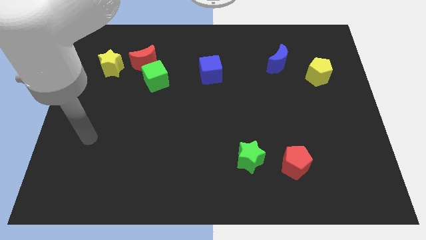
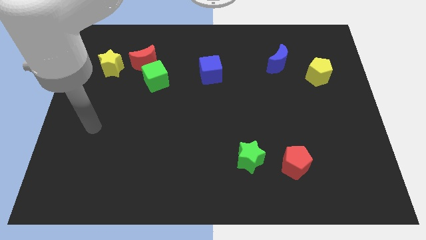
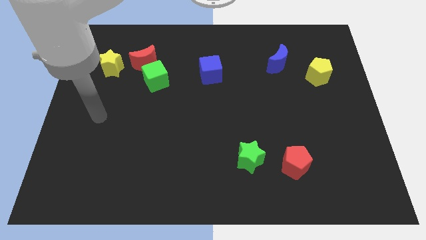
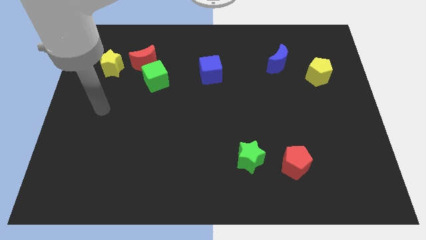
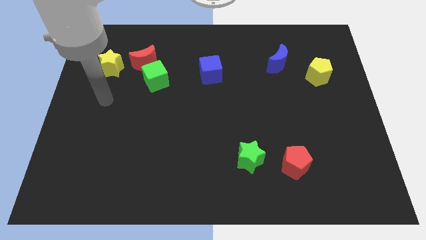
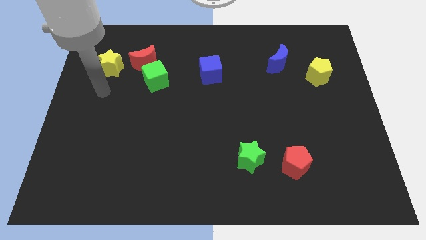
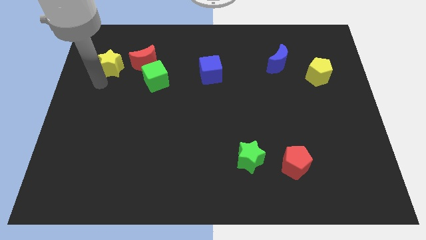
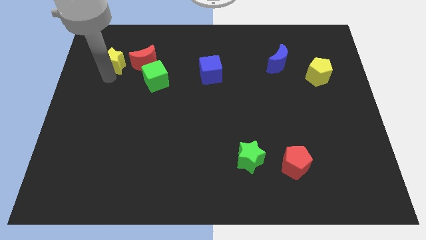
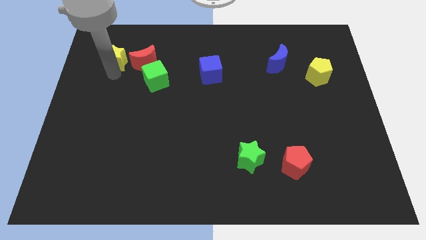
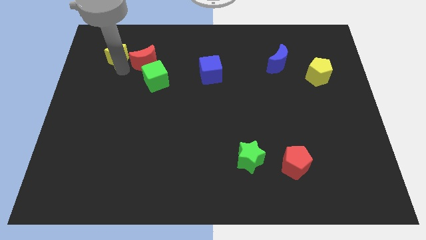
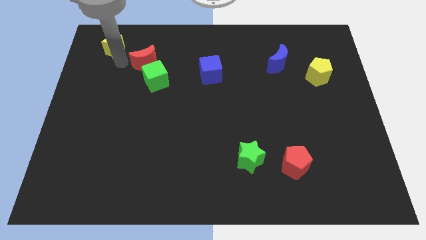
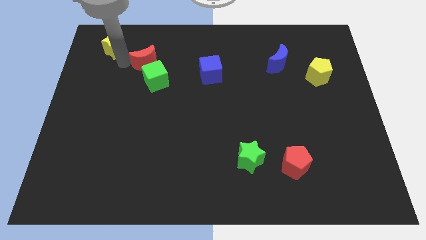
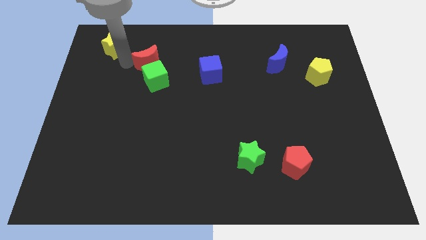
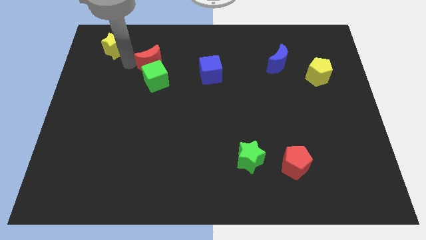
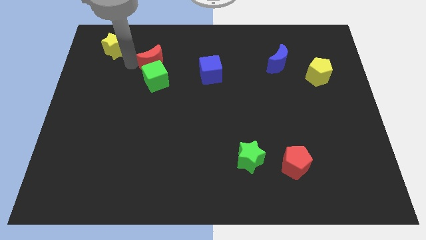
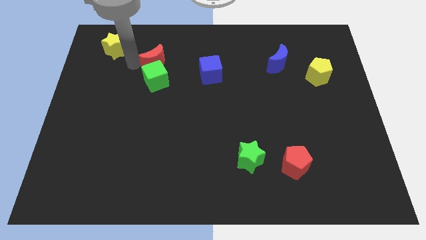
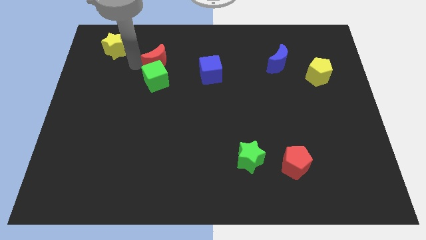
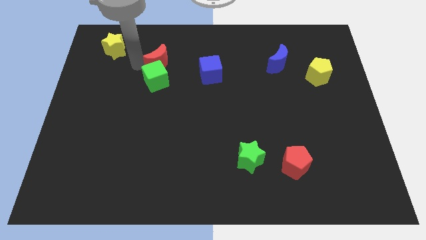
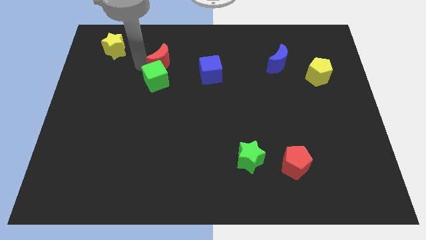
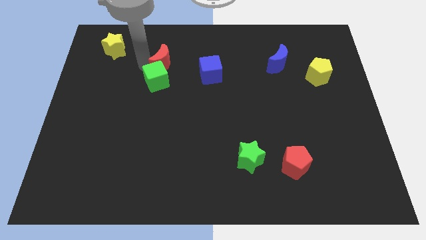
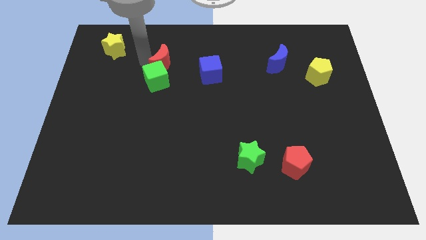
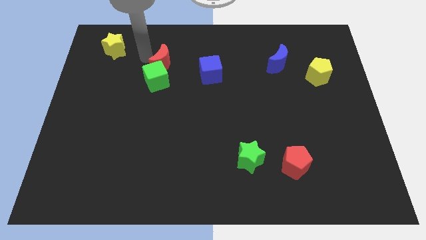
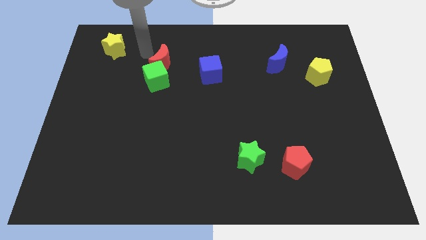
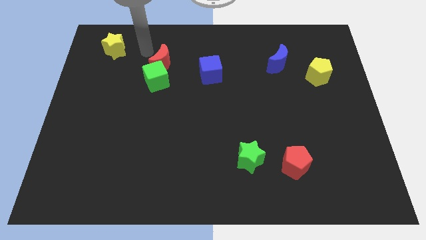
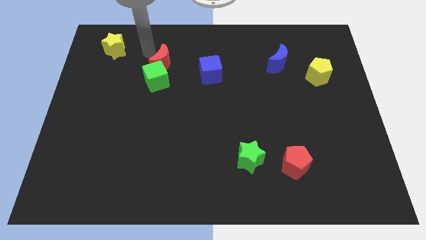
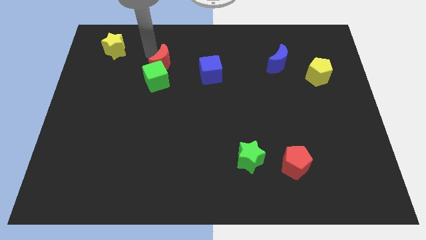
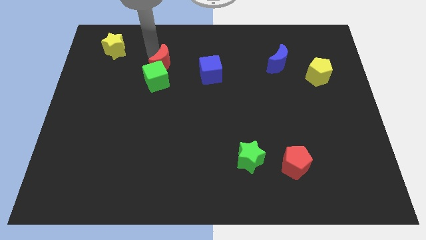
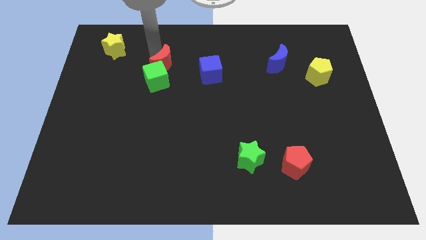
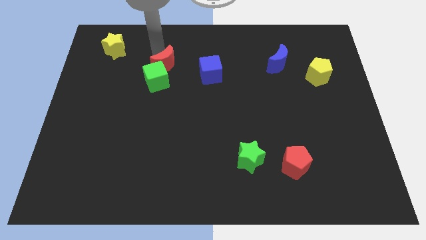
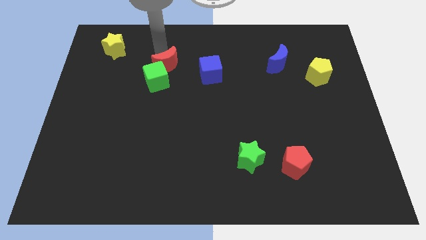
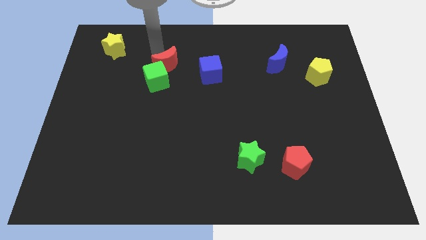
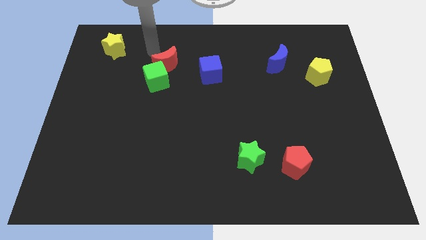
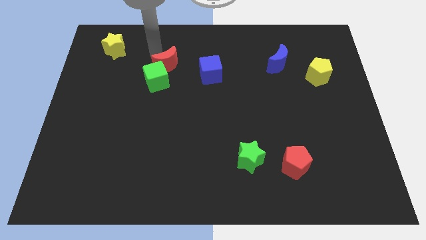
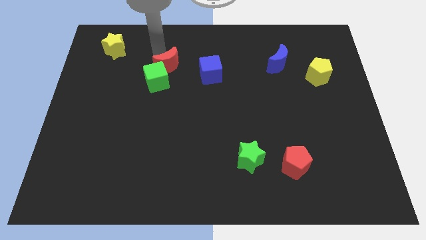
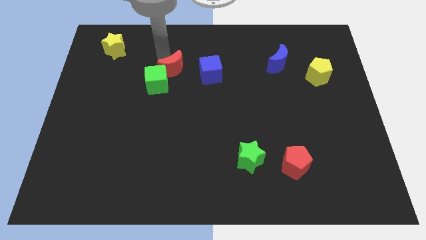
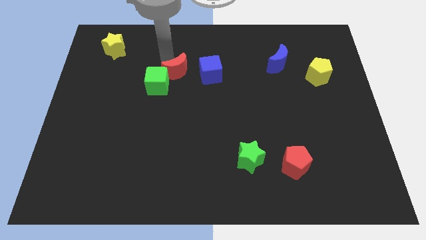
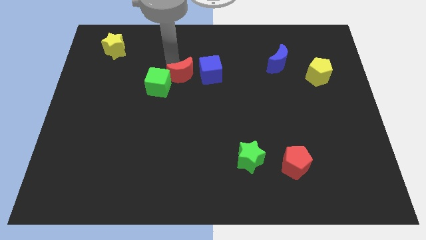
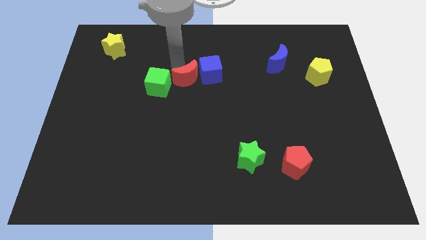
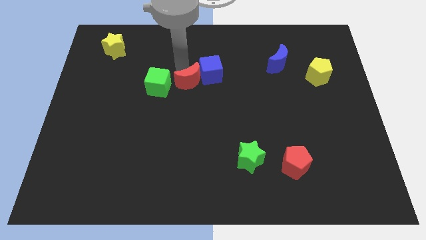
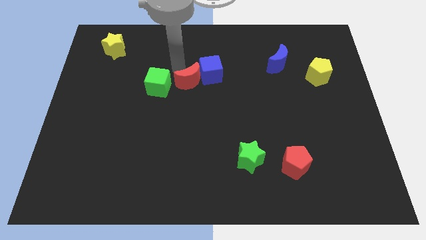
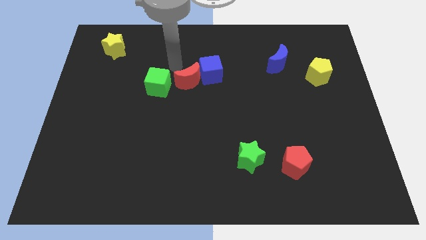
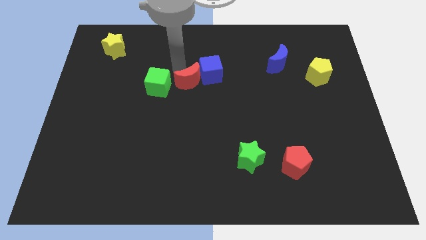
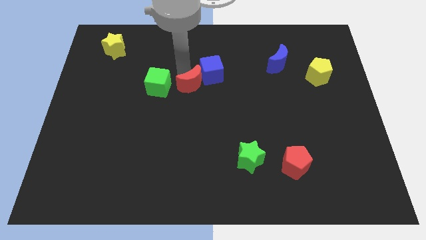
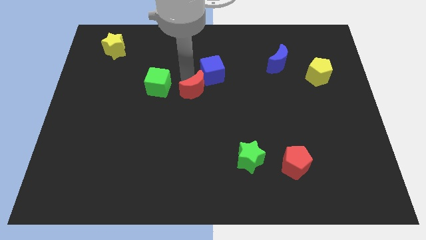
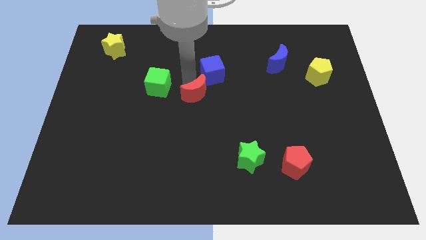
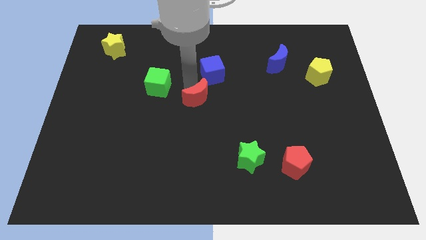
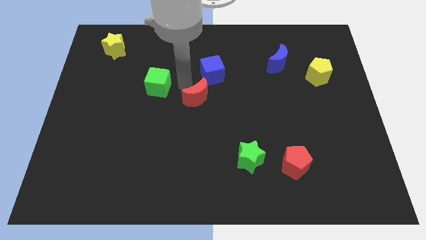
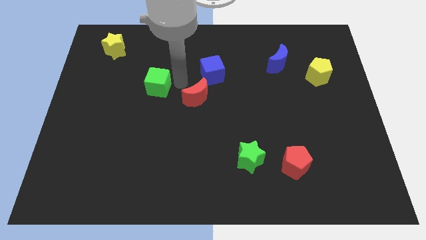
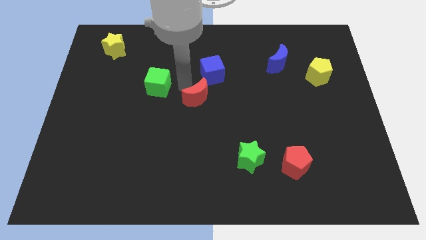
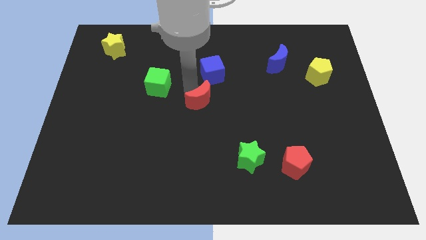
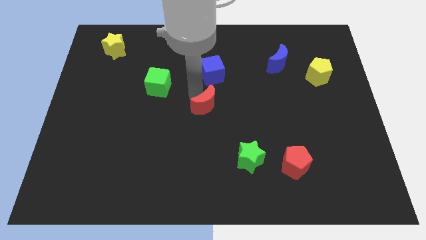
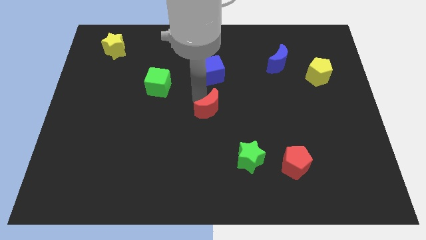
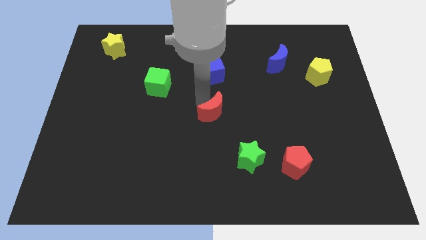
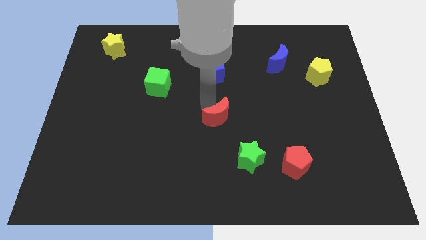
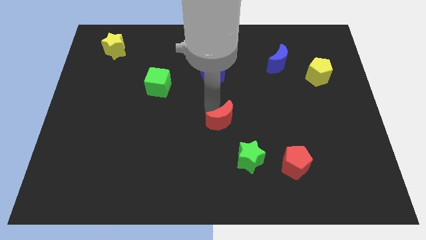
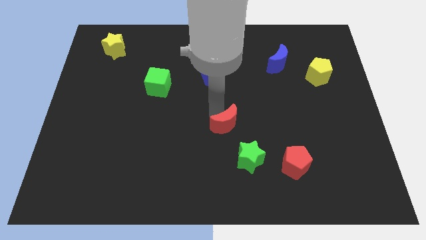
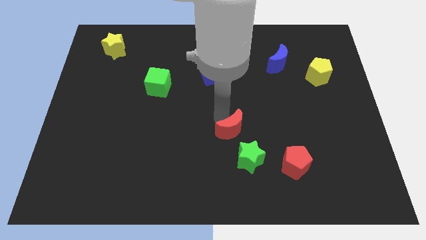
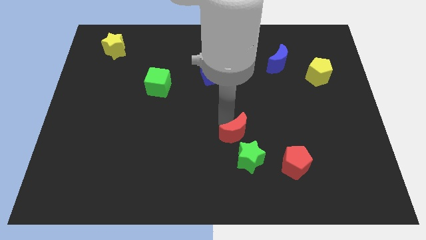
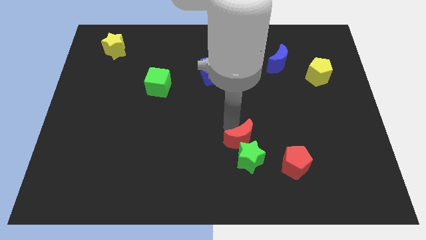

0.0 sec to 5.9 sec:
put the red moon towards the green star

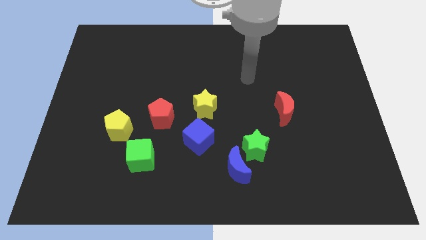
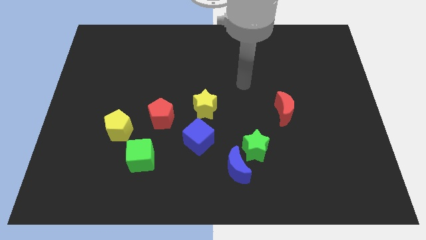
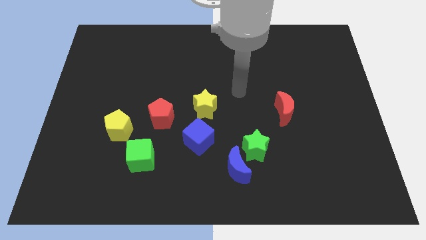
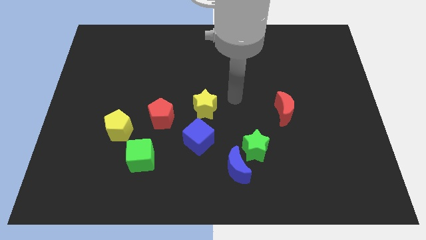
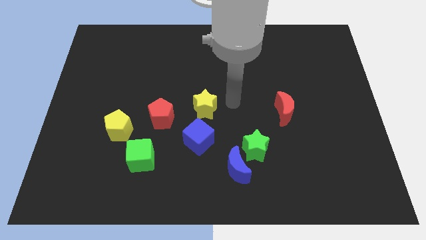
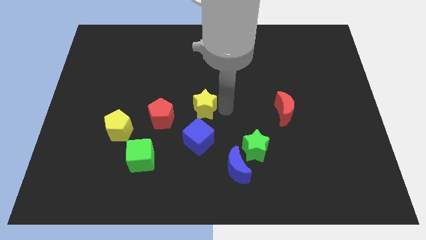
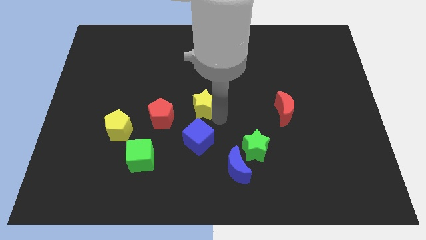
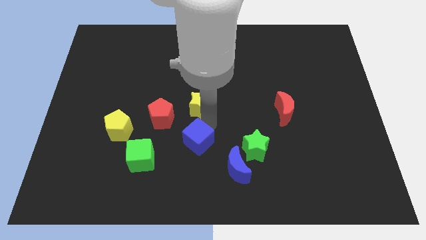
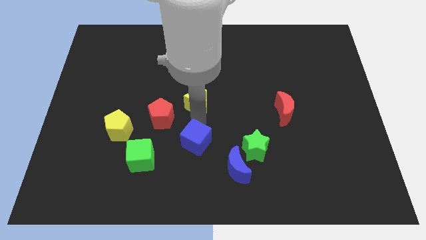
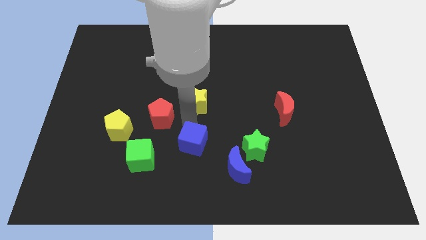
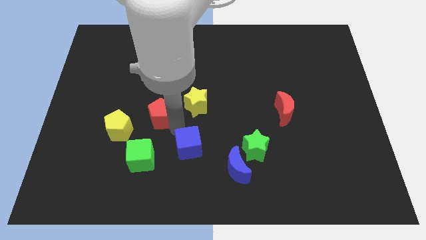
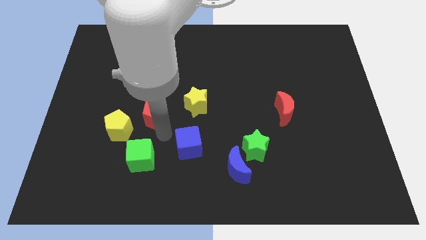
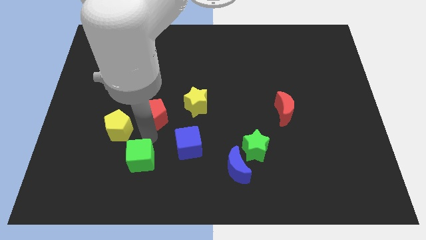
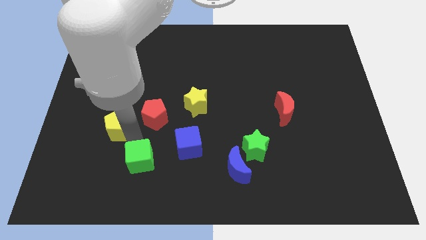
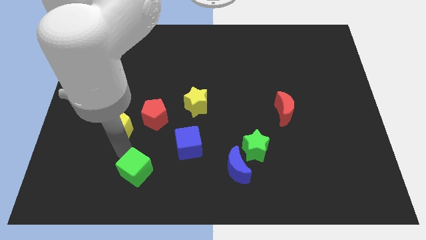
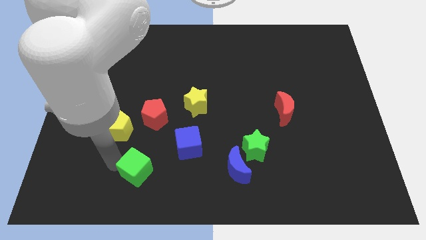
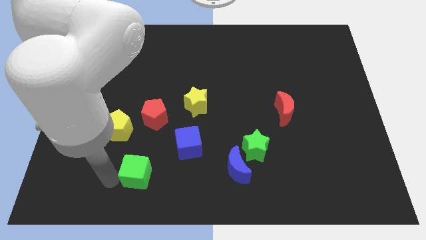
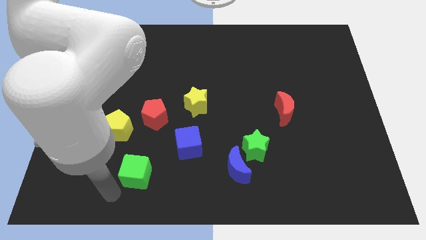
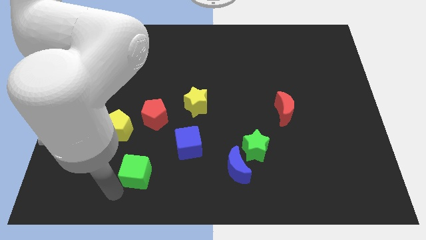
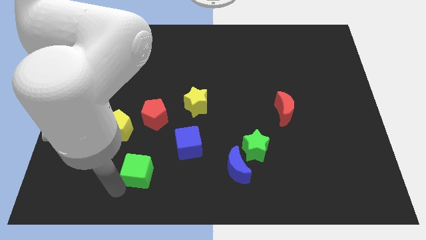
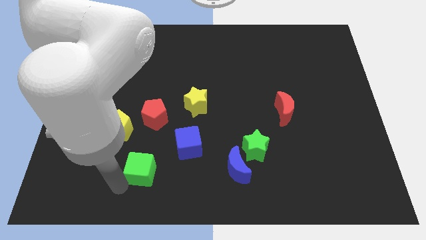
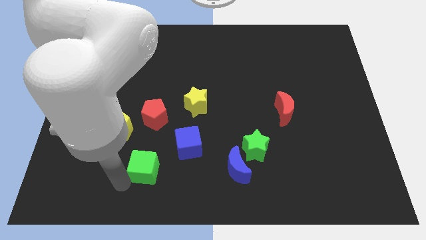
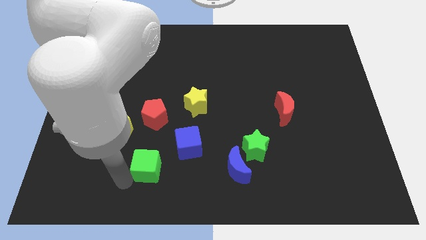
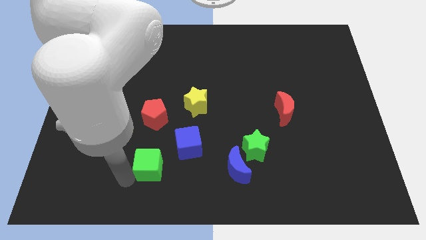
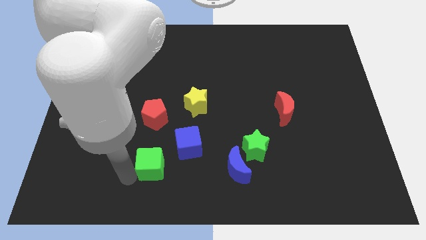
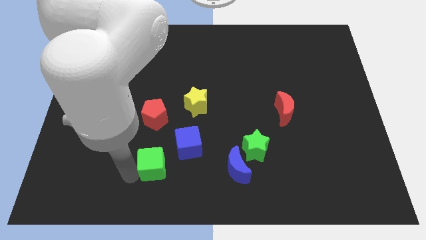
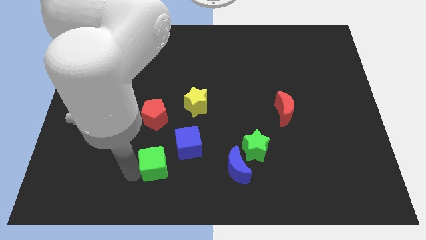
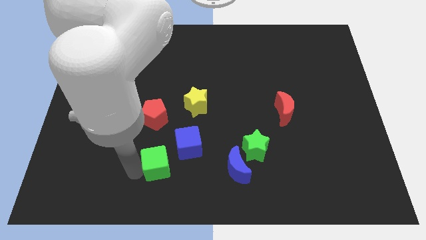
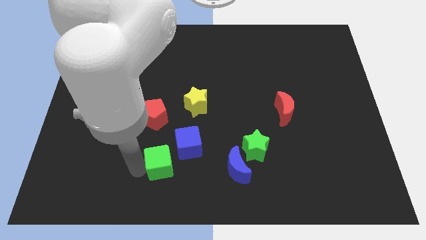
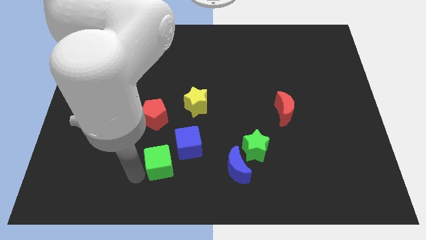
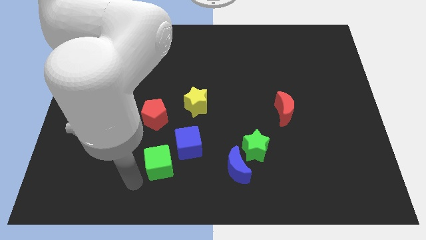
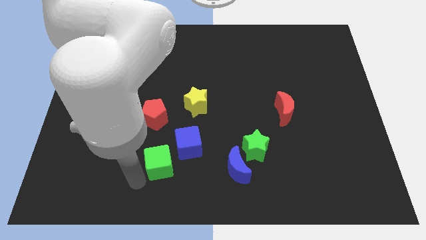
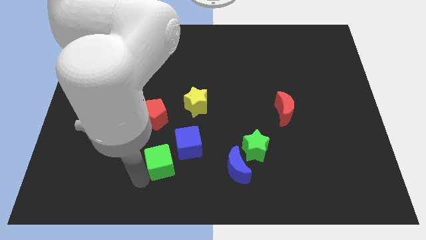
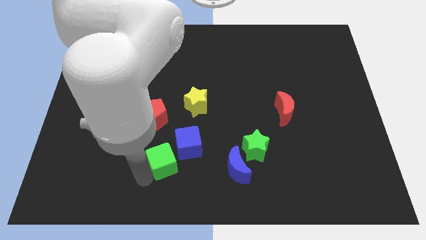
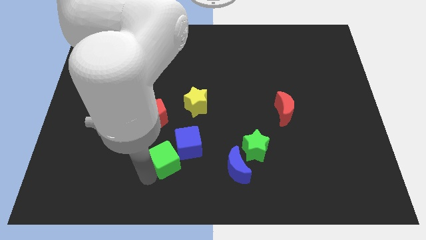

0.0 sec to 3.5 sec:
push the green cube to the blue cube
